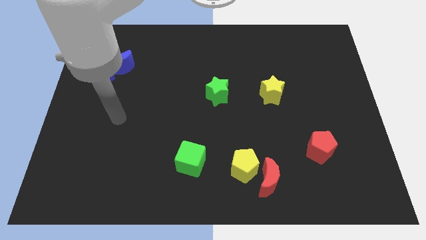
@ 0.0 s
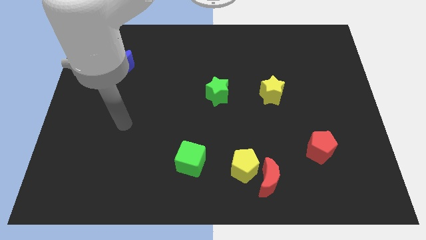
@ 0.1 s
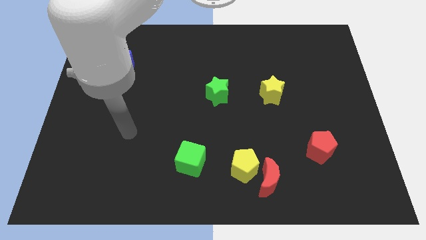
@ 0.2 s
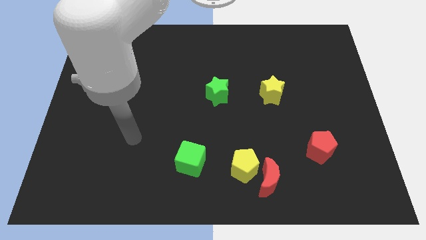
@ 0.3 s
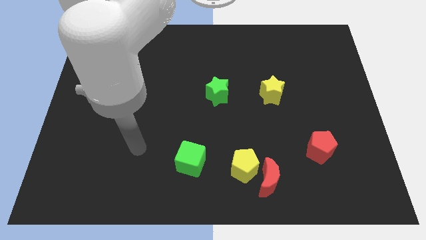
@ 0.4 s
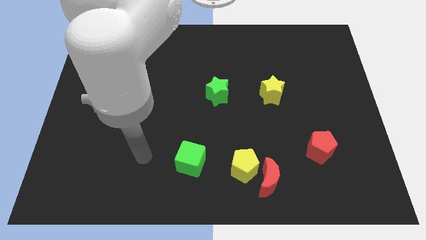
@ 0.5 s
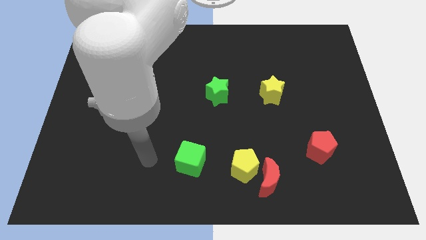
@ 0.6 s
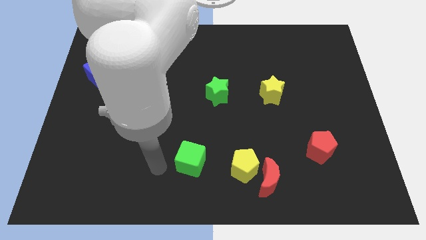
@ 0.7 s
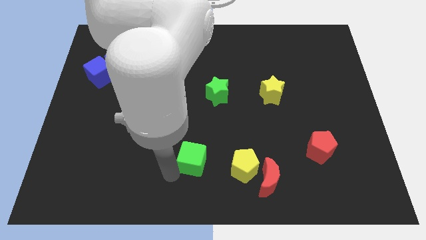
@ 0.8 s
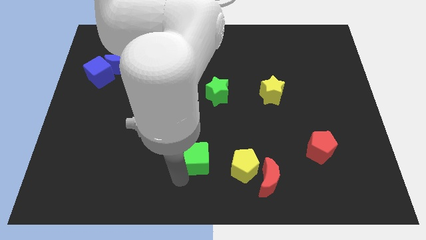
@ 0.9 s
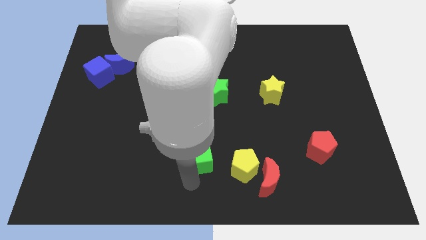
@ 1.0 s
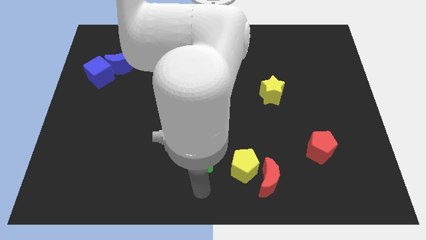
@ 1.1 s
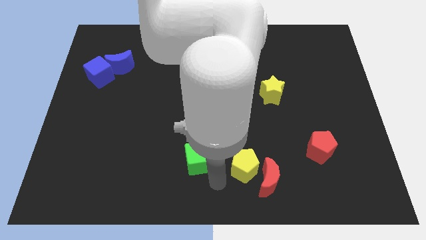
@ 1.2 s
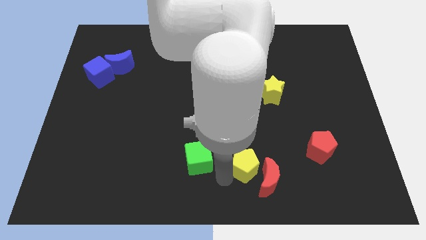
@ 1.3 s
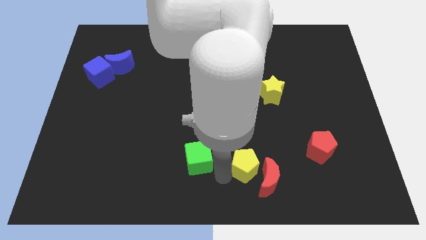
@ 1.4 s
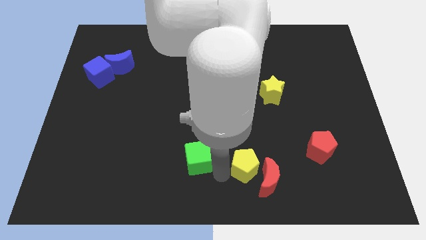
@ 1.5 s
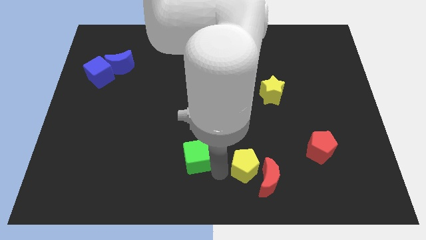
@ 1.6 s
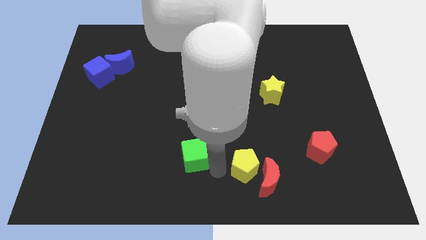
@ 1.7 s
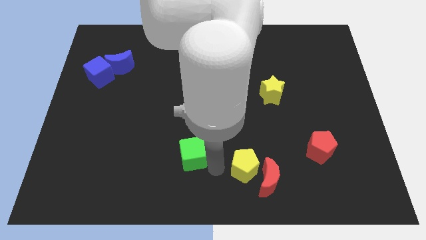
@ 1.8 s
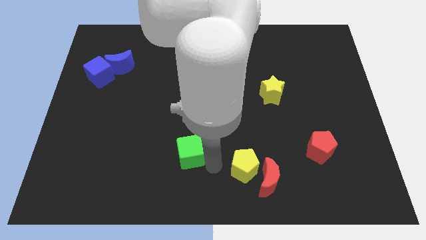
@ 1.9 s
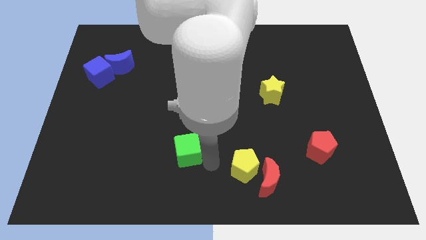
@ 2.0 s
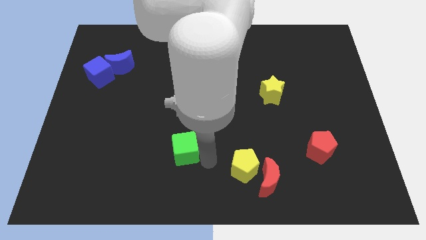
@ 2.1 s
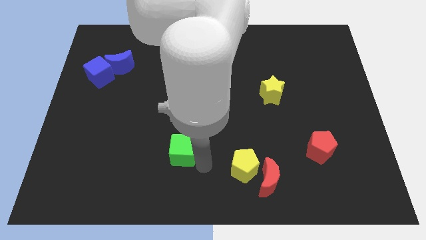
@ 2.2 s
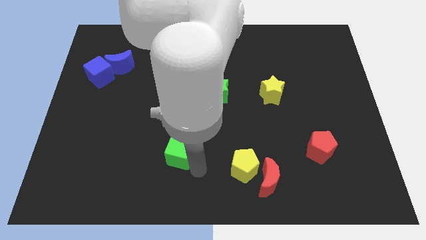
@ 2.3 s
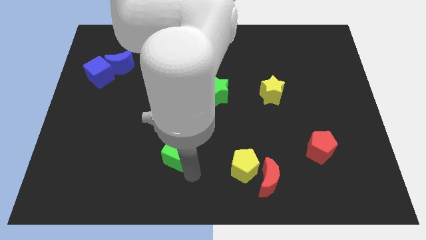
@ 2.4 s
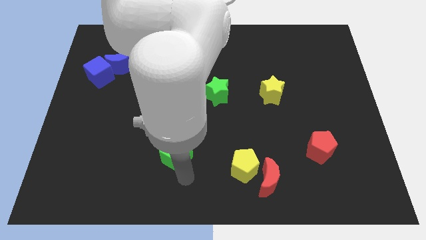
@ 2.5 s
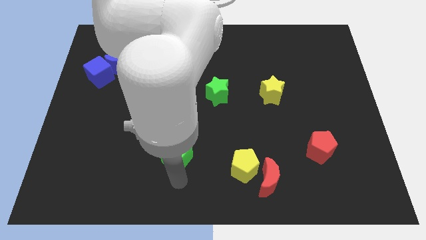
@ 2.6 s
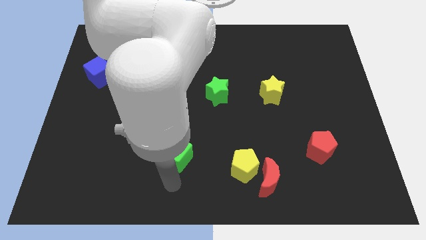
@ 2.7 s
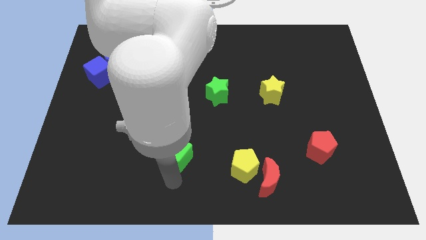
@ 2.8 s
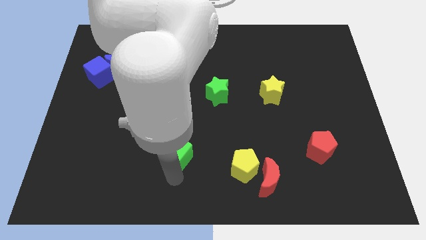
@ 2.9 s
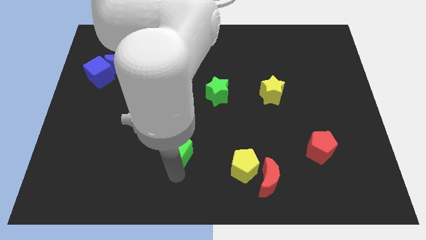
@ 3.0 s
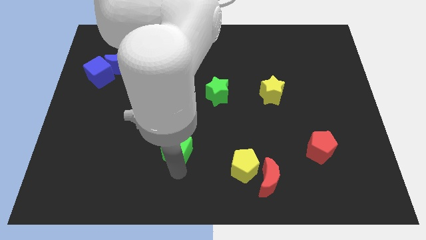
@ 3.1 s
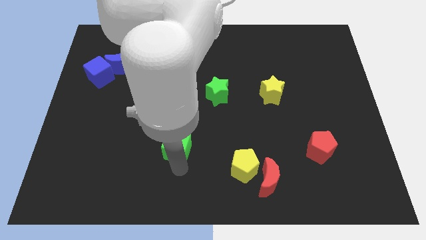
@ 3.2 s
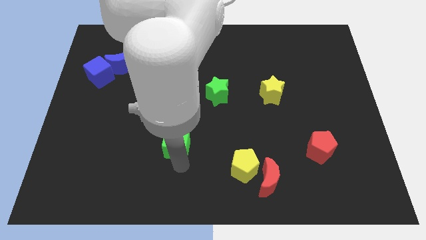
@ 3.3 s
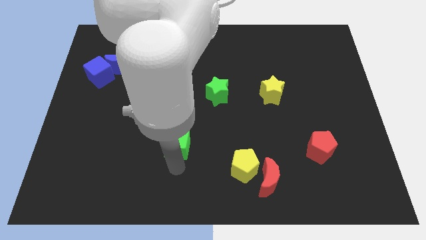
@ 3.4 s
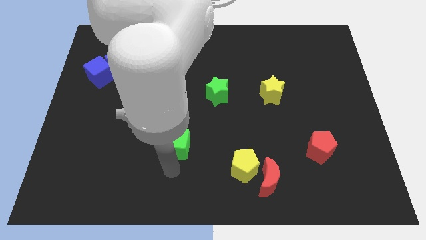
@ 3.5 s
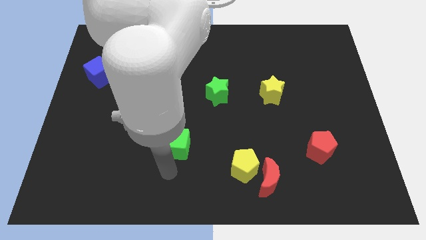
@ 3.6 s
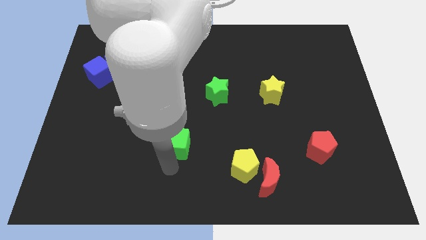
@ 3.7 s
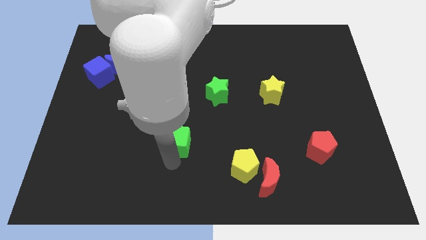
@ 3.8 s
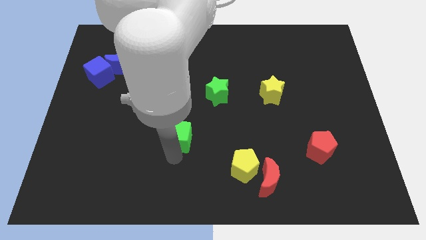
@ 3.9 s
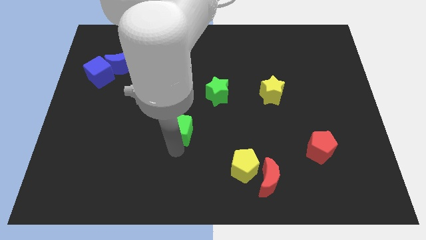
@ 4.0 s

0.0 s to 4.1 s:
slightly slide the green cube upwards

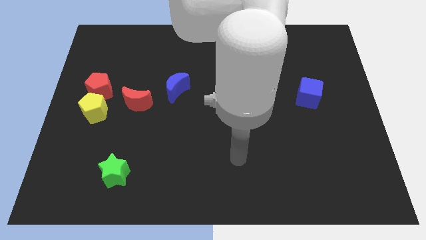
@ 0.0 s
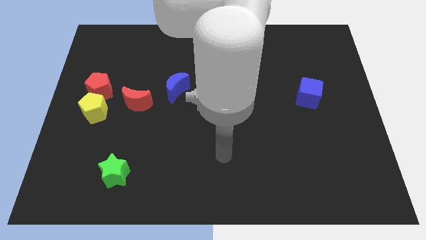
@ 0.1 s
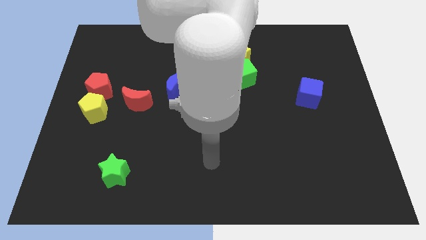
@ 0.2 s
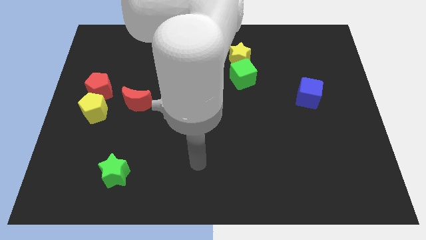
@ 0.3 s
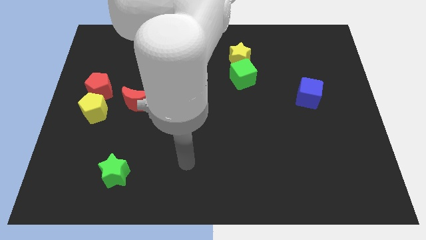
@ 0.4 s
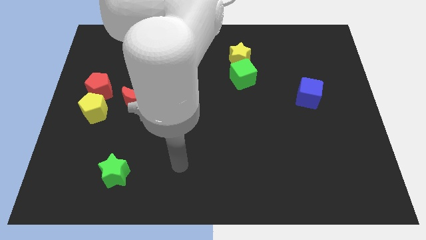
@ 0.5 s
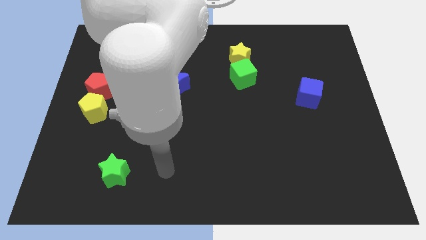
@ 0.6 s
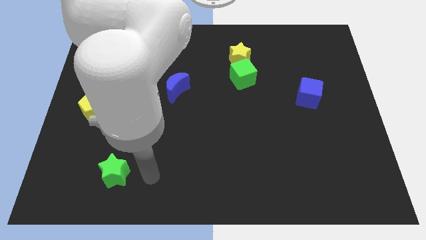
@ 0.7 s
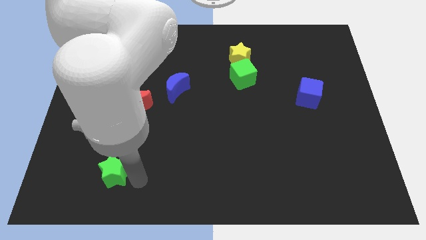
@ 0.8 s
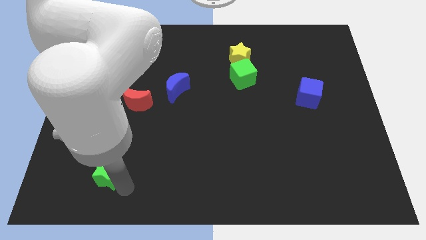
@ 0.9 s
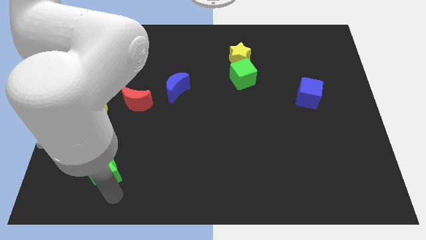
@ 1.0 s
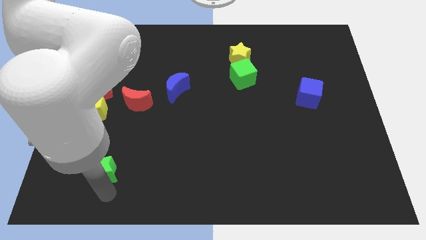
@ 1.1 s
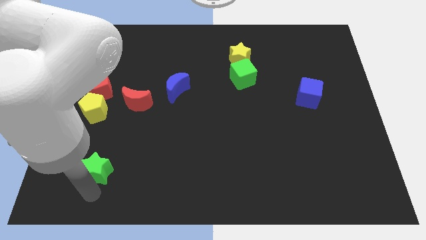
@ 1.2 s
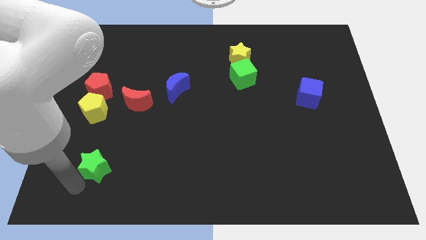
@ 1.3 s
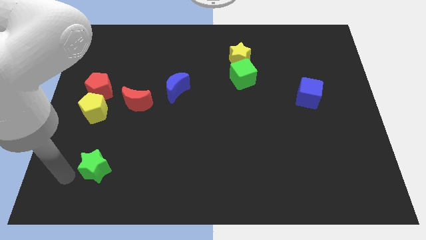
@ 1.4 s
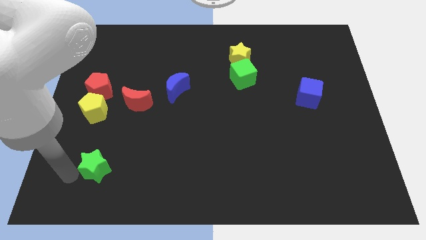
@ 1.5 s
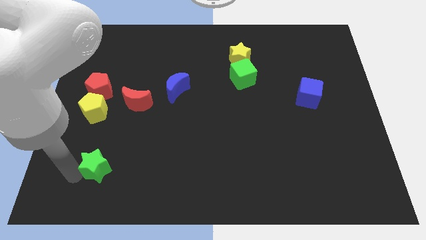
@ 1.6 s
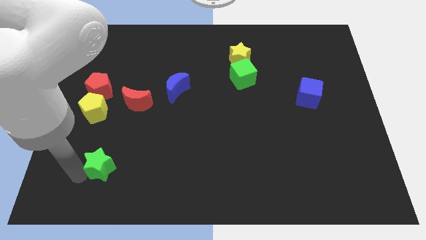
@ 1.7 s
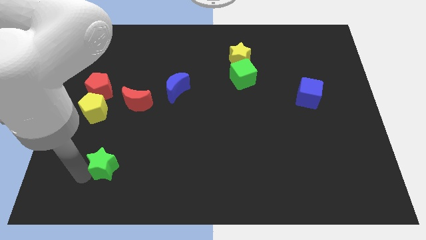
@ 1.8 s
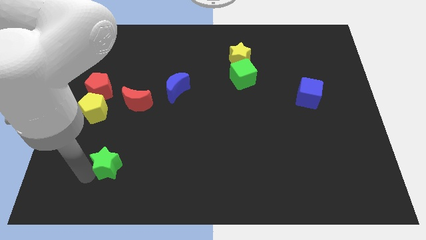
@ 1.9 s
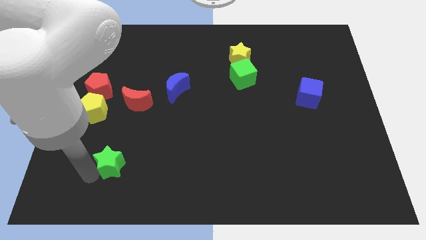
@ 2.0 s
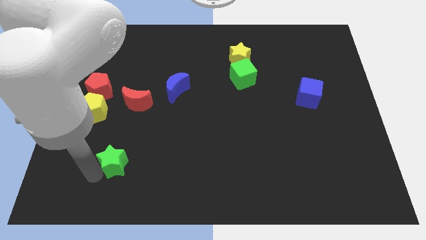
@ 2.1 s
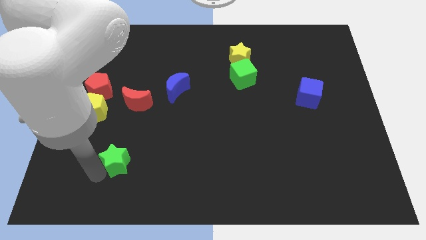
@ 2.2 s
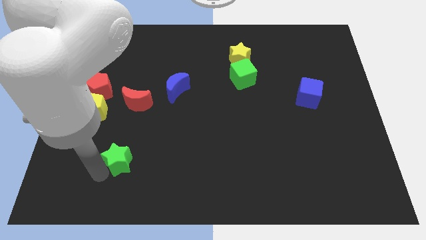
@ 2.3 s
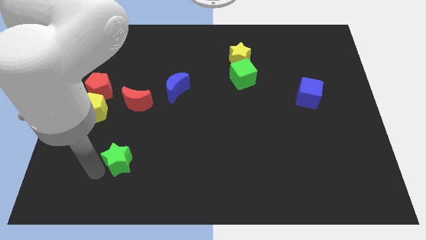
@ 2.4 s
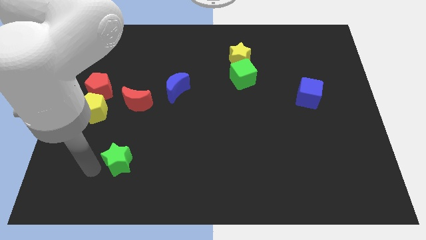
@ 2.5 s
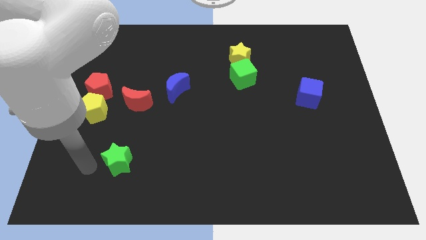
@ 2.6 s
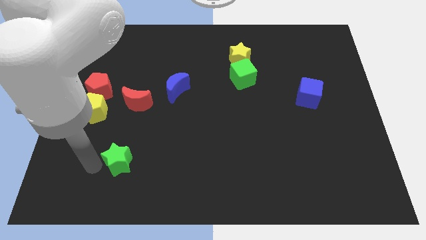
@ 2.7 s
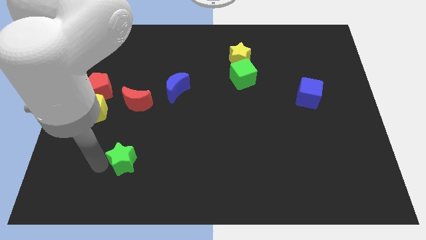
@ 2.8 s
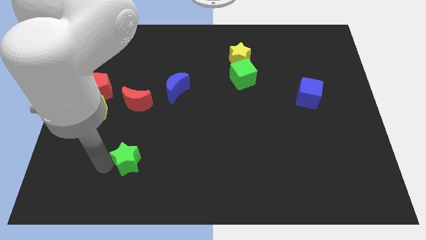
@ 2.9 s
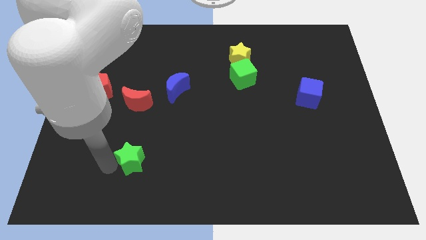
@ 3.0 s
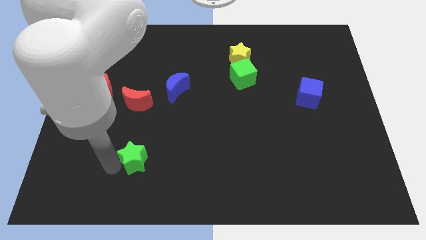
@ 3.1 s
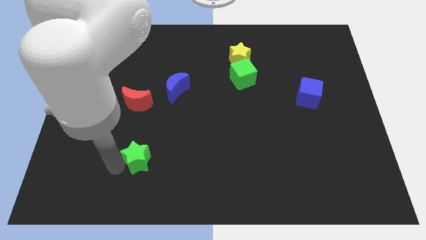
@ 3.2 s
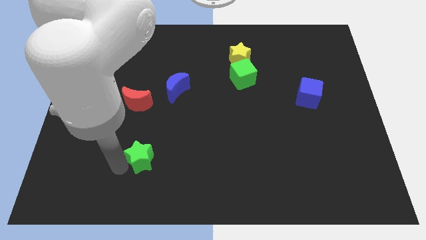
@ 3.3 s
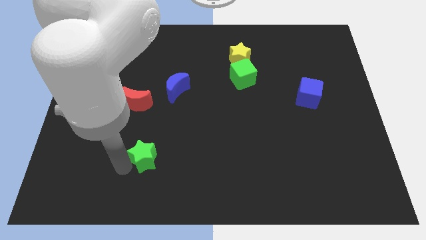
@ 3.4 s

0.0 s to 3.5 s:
slightly push the green star upwards and to the right

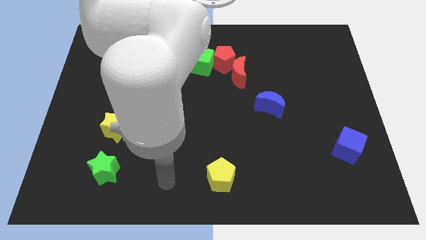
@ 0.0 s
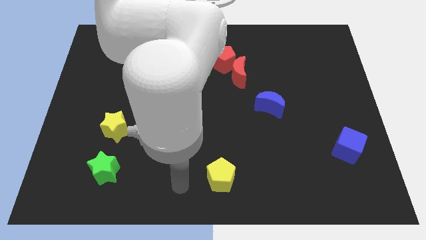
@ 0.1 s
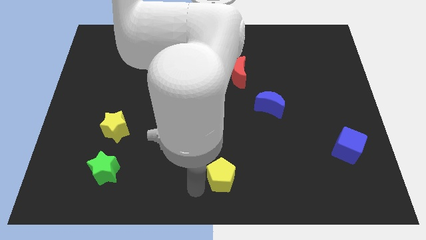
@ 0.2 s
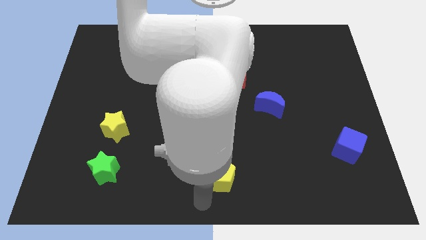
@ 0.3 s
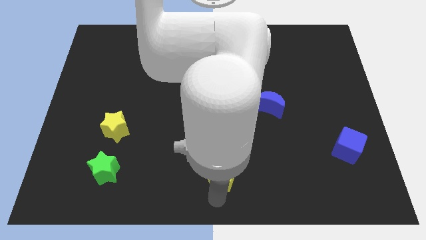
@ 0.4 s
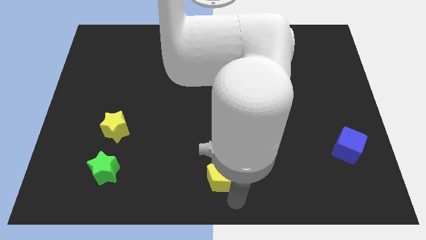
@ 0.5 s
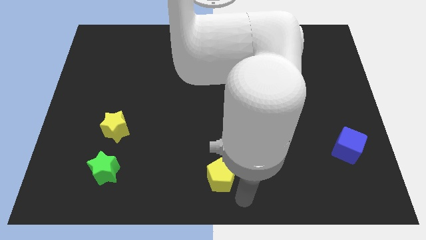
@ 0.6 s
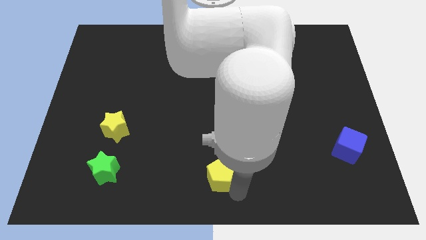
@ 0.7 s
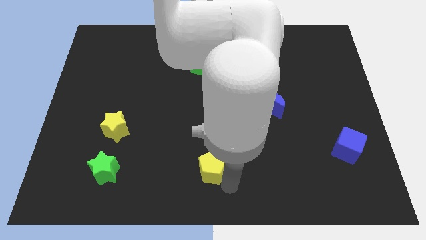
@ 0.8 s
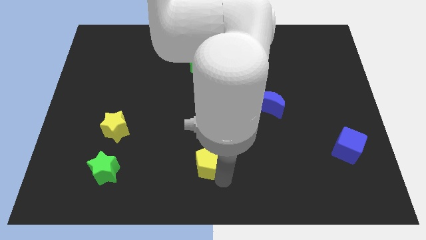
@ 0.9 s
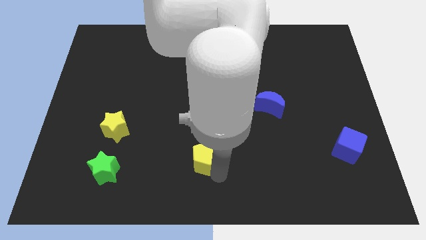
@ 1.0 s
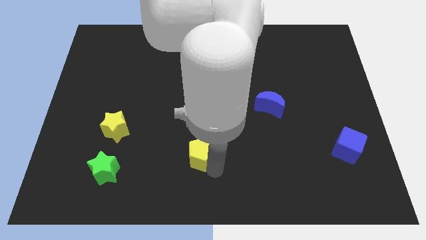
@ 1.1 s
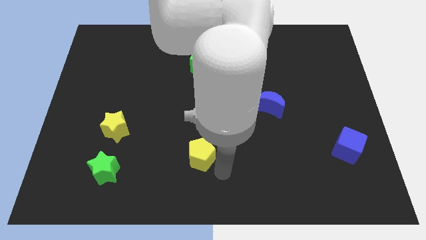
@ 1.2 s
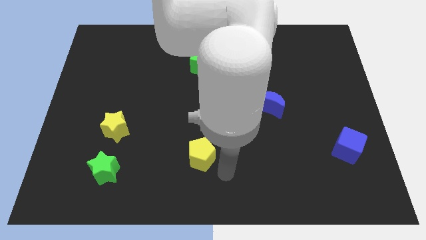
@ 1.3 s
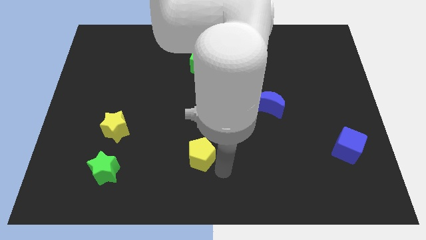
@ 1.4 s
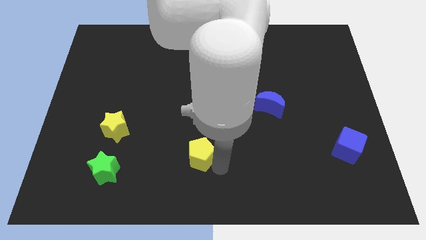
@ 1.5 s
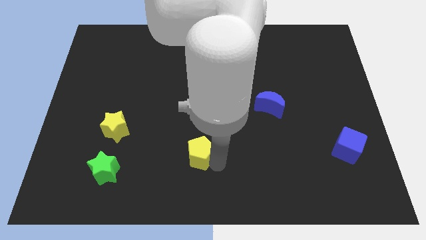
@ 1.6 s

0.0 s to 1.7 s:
slide the yellow pentagon upwards and then to the left a little bit
